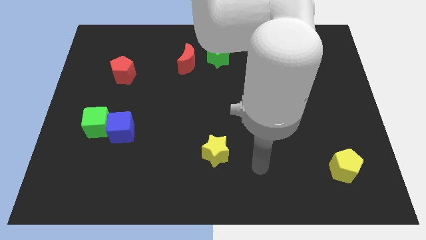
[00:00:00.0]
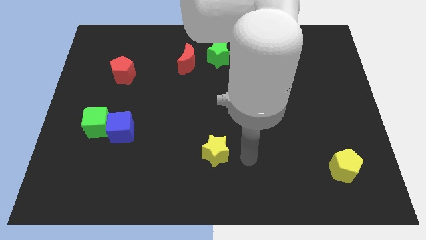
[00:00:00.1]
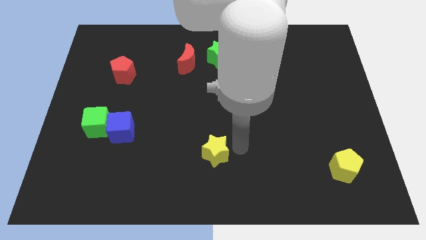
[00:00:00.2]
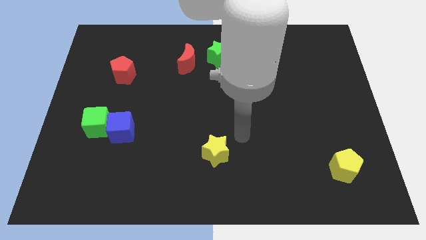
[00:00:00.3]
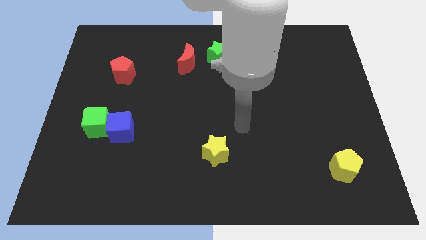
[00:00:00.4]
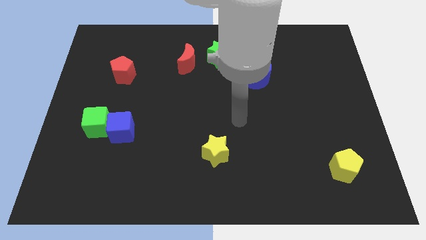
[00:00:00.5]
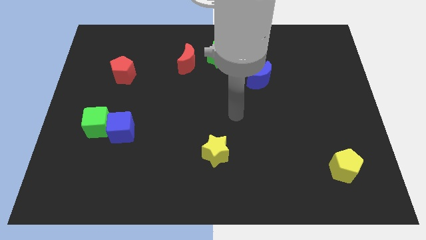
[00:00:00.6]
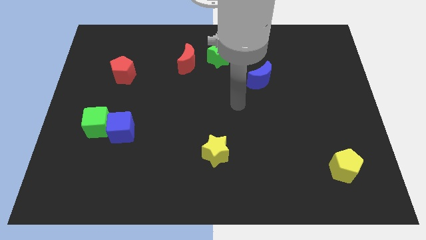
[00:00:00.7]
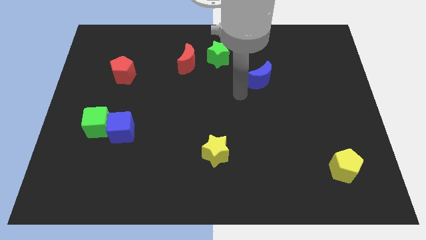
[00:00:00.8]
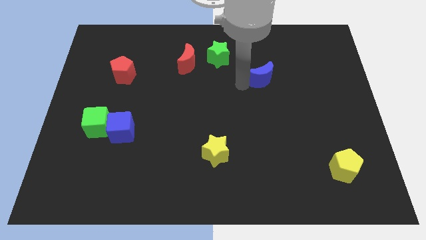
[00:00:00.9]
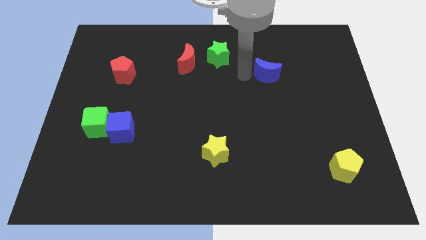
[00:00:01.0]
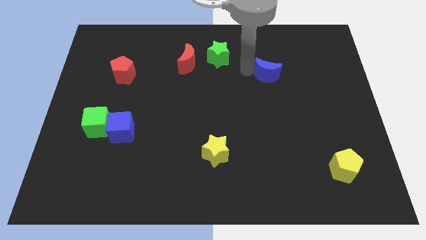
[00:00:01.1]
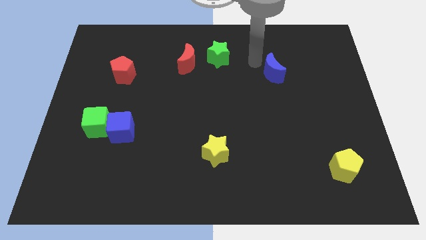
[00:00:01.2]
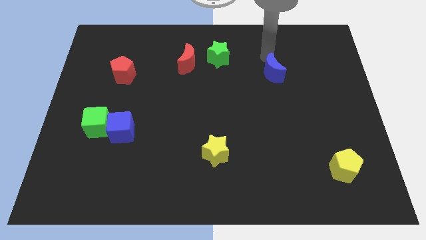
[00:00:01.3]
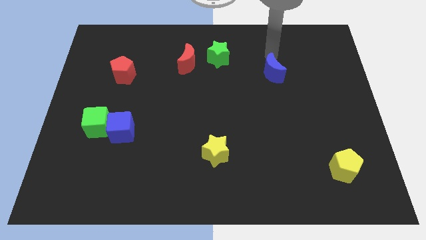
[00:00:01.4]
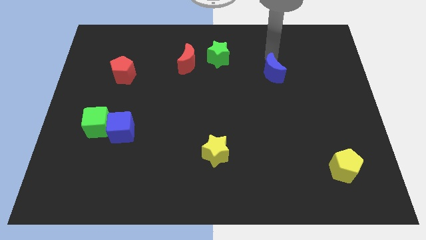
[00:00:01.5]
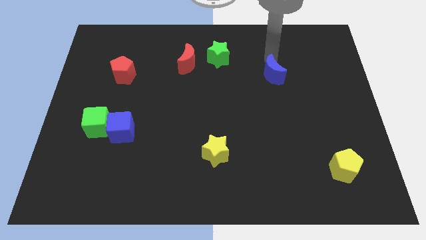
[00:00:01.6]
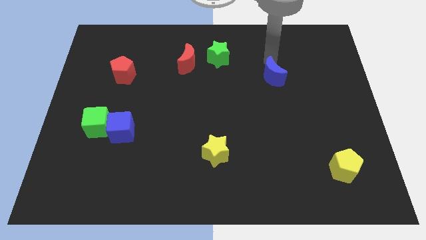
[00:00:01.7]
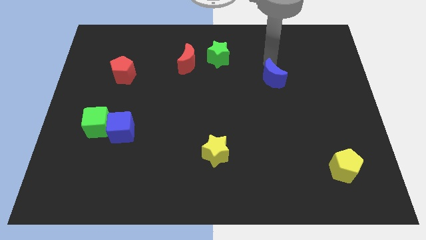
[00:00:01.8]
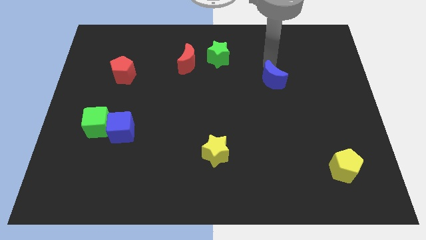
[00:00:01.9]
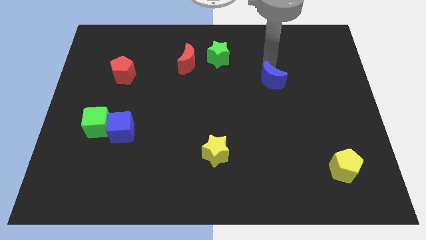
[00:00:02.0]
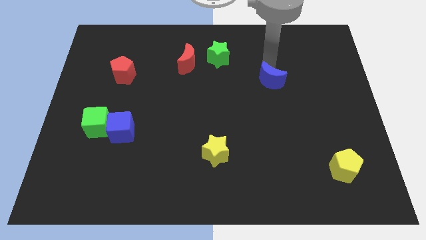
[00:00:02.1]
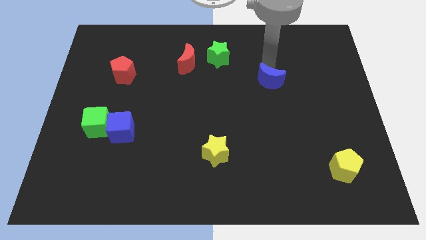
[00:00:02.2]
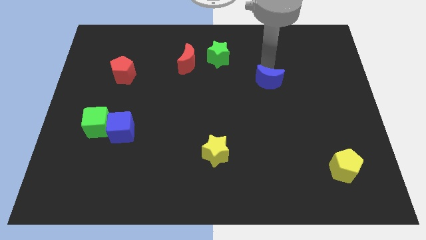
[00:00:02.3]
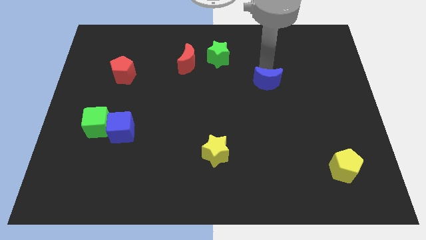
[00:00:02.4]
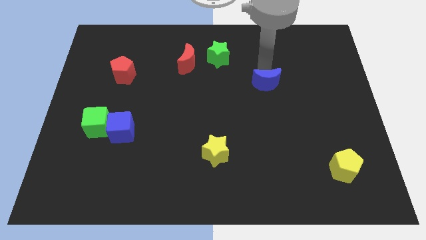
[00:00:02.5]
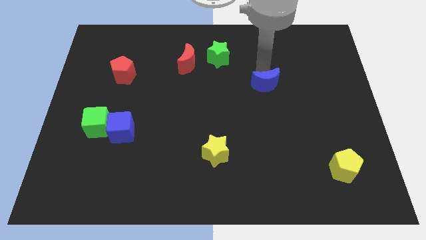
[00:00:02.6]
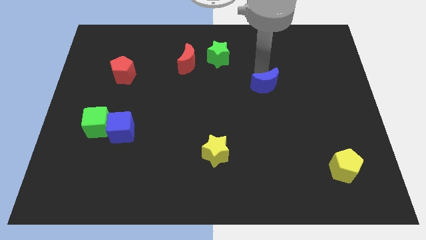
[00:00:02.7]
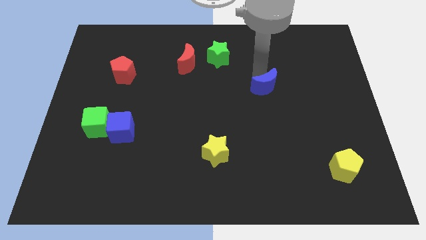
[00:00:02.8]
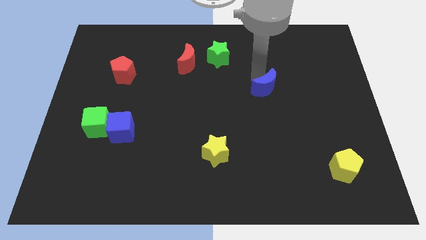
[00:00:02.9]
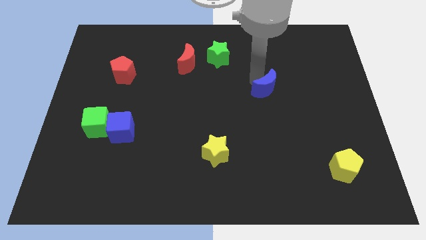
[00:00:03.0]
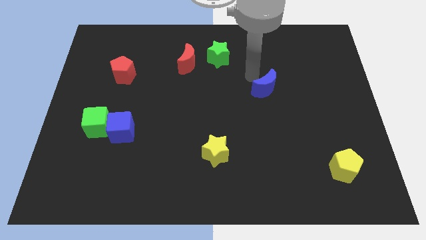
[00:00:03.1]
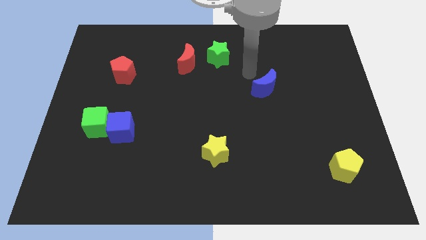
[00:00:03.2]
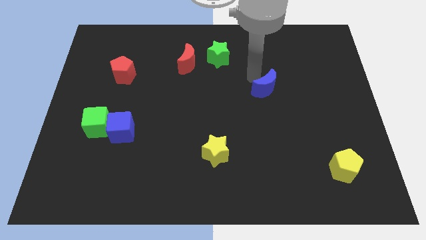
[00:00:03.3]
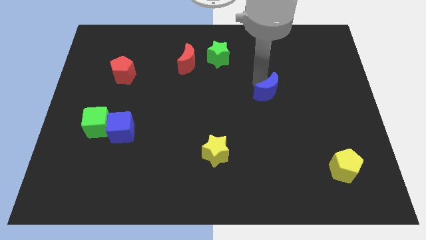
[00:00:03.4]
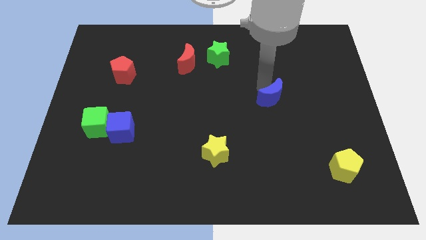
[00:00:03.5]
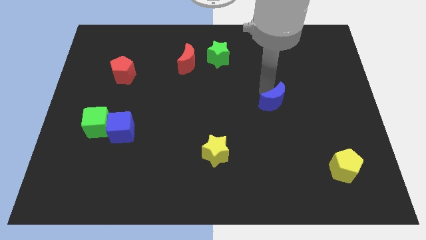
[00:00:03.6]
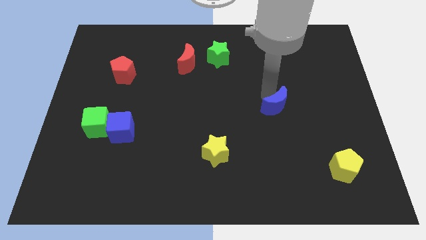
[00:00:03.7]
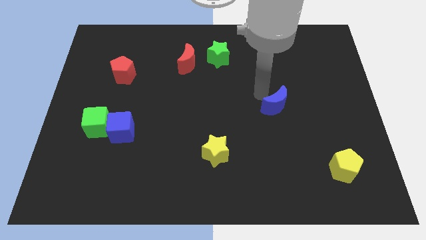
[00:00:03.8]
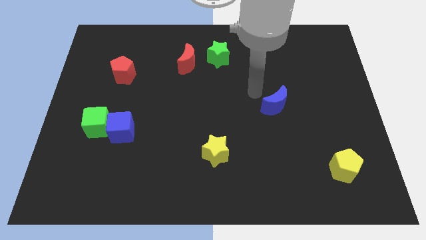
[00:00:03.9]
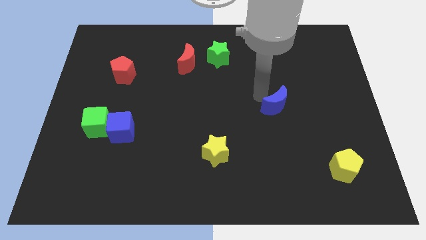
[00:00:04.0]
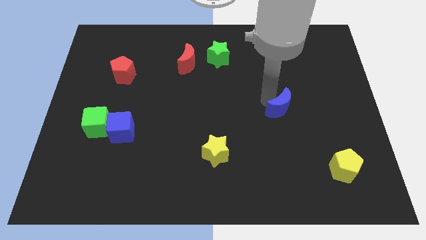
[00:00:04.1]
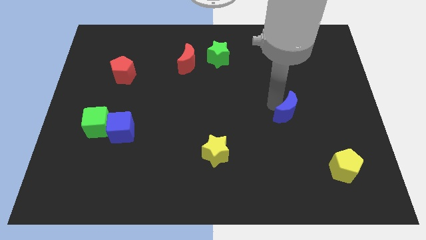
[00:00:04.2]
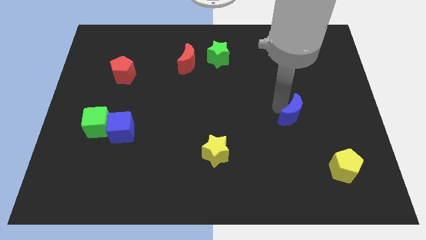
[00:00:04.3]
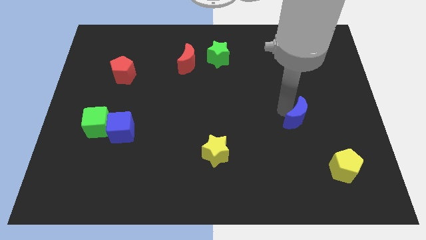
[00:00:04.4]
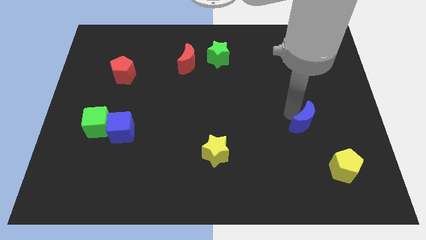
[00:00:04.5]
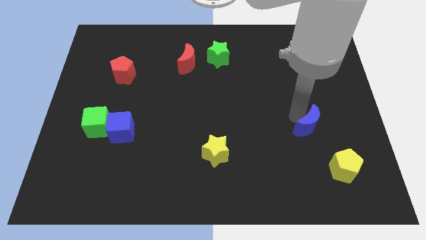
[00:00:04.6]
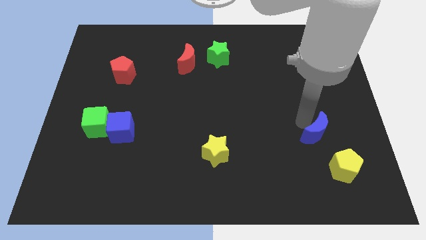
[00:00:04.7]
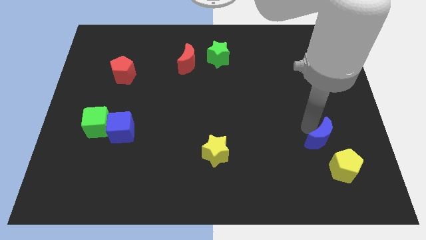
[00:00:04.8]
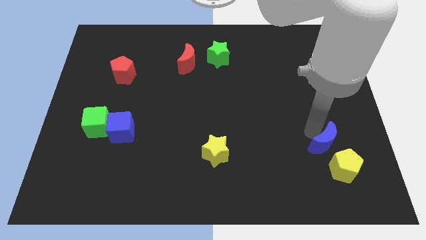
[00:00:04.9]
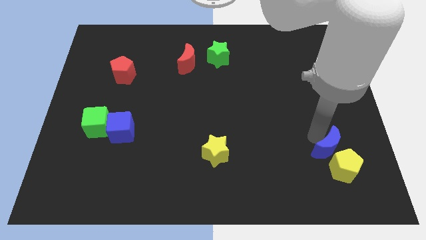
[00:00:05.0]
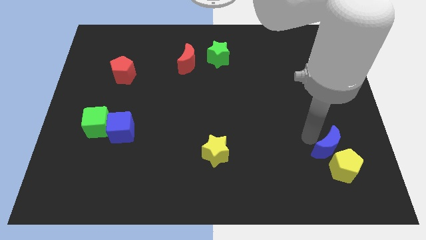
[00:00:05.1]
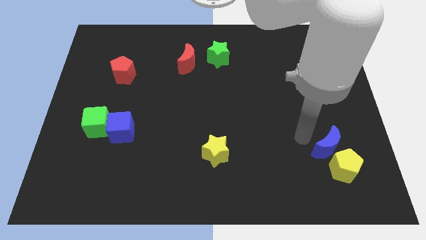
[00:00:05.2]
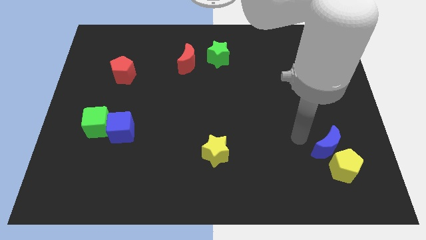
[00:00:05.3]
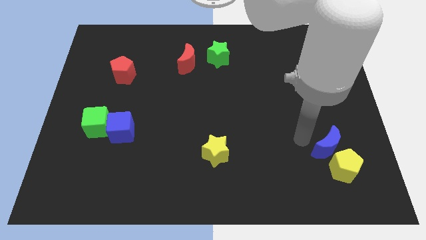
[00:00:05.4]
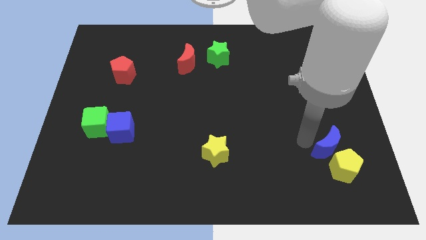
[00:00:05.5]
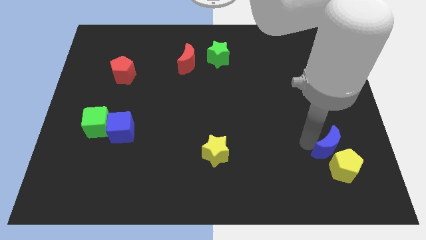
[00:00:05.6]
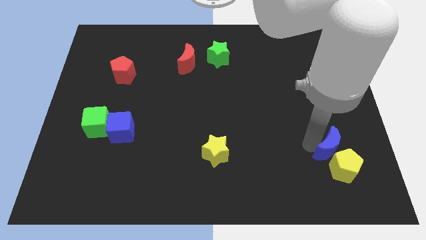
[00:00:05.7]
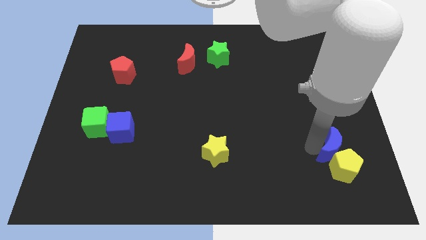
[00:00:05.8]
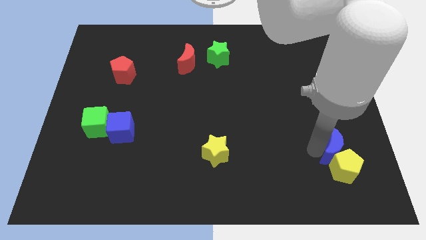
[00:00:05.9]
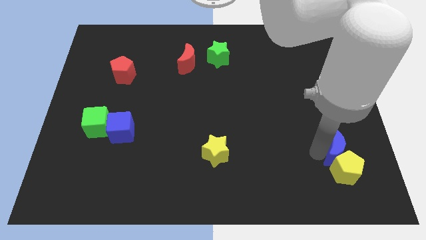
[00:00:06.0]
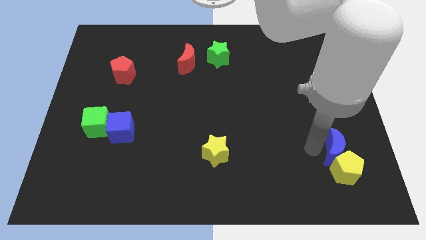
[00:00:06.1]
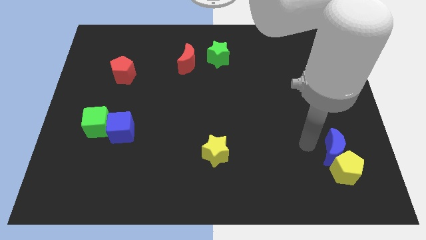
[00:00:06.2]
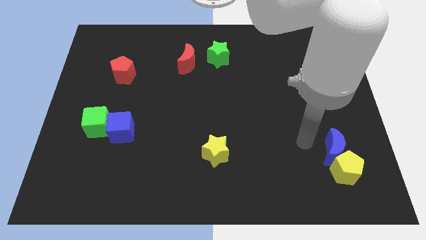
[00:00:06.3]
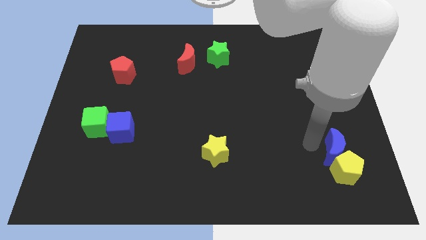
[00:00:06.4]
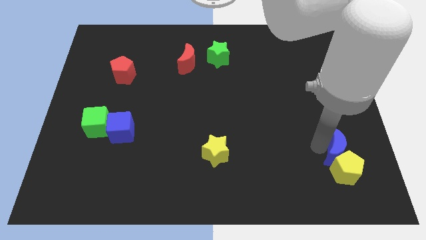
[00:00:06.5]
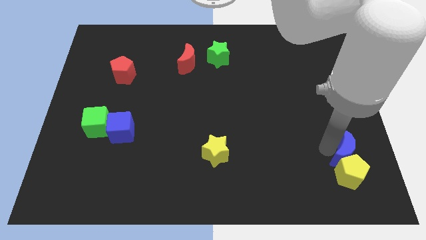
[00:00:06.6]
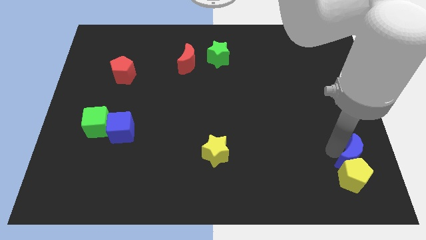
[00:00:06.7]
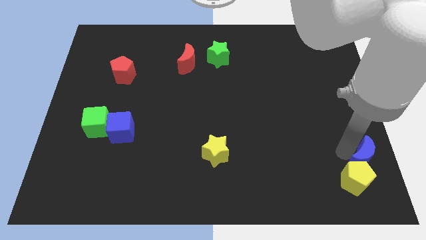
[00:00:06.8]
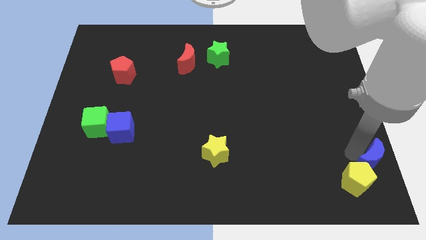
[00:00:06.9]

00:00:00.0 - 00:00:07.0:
put the blue moon to the bottom right of the board

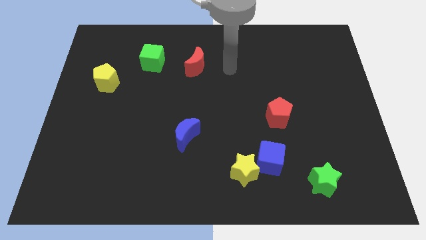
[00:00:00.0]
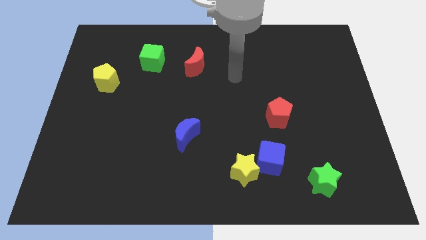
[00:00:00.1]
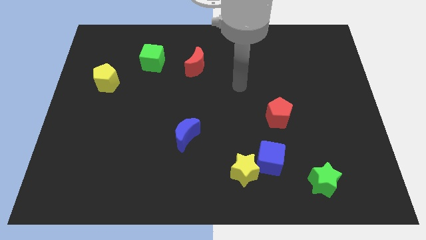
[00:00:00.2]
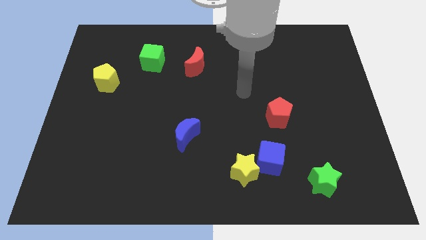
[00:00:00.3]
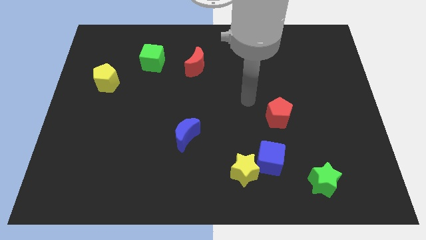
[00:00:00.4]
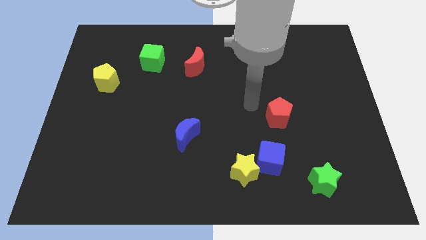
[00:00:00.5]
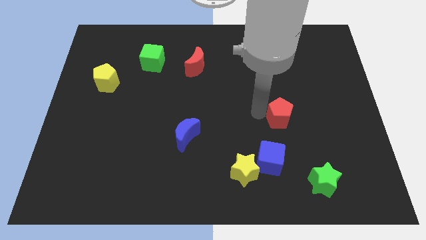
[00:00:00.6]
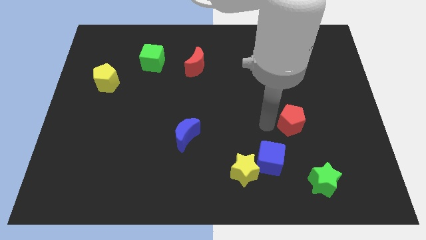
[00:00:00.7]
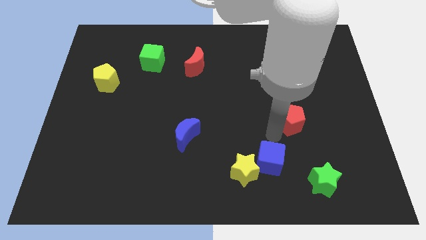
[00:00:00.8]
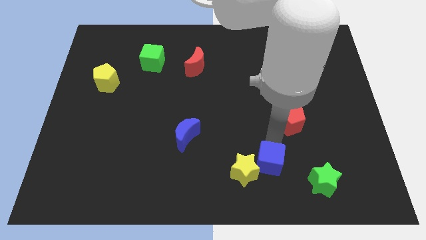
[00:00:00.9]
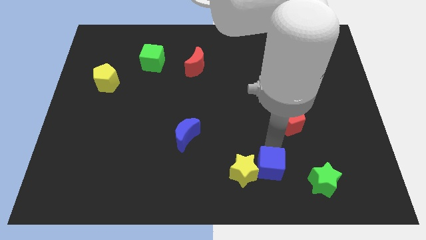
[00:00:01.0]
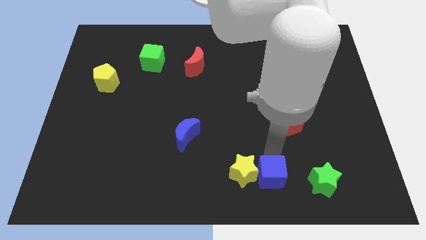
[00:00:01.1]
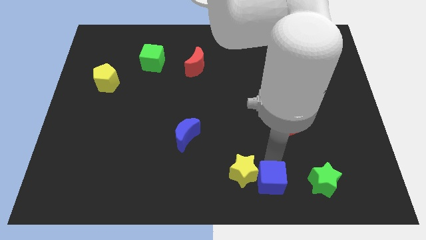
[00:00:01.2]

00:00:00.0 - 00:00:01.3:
move the blue cube to the bottom side
